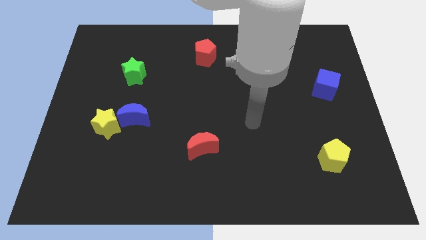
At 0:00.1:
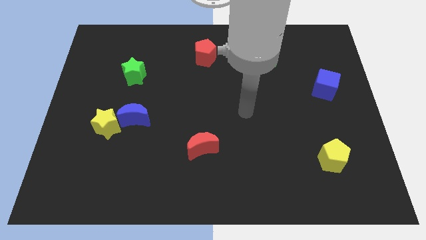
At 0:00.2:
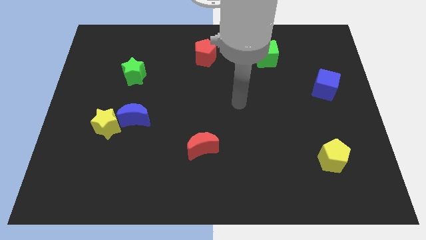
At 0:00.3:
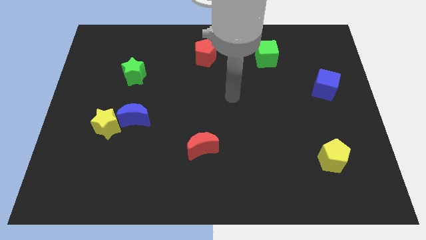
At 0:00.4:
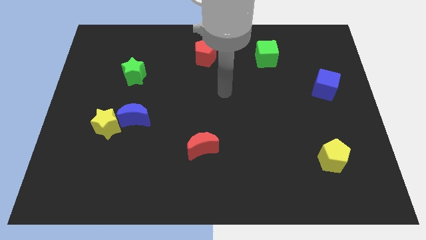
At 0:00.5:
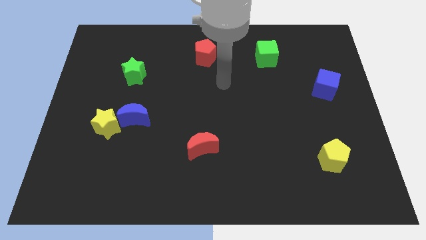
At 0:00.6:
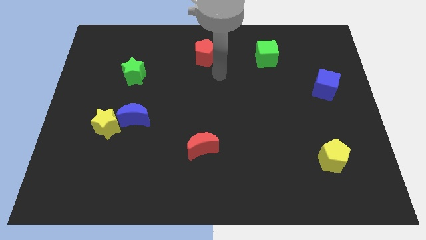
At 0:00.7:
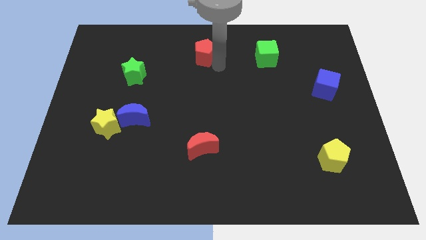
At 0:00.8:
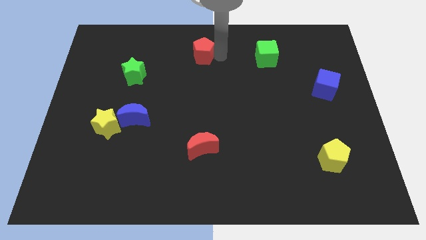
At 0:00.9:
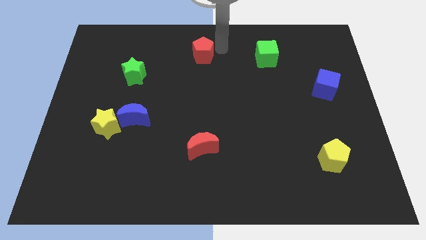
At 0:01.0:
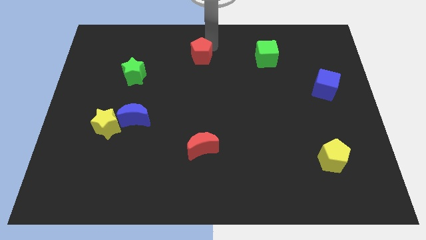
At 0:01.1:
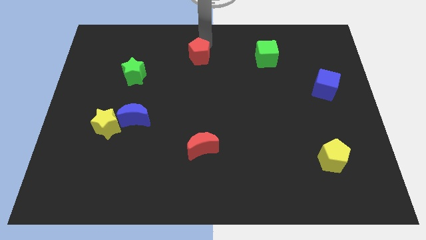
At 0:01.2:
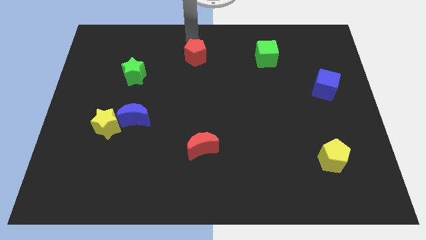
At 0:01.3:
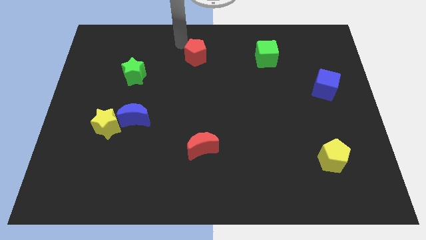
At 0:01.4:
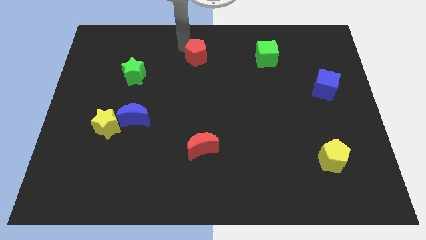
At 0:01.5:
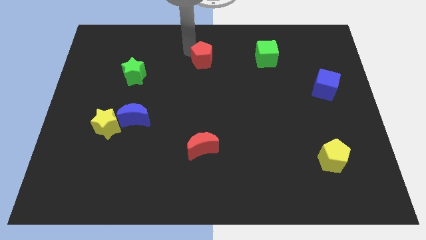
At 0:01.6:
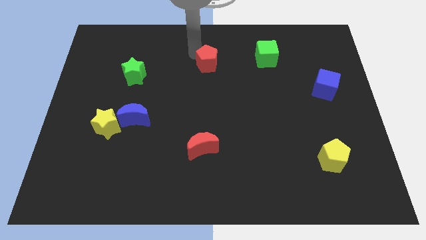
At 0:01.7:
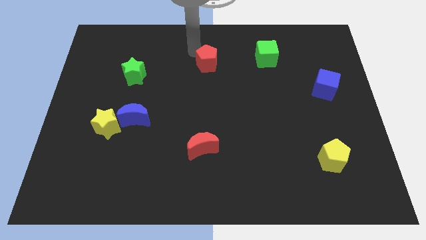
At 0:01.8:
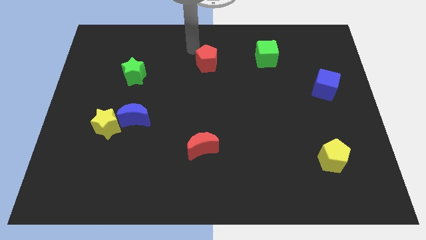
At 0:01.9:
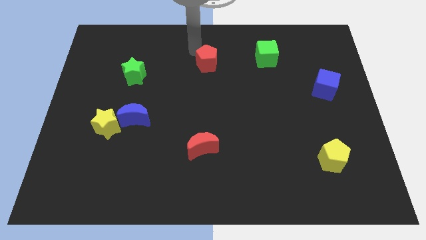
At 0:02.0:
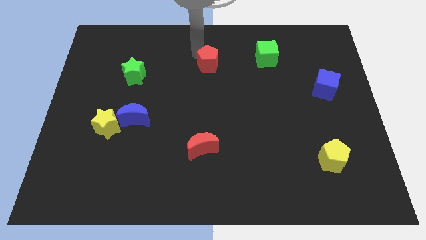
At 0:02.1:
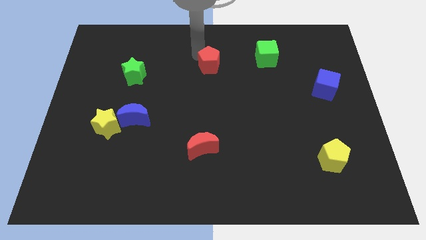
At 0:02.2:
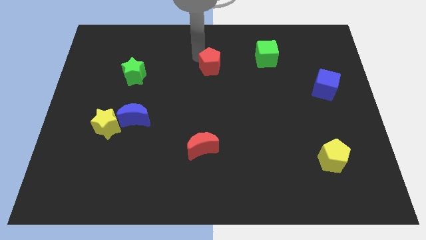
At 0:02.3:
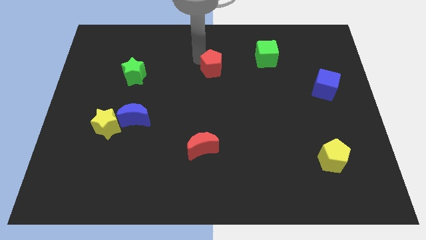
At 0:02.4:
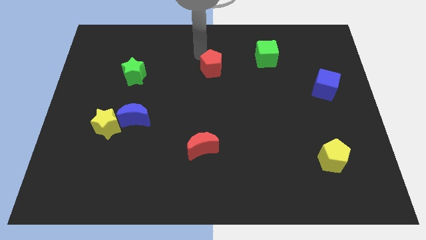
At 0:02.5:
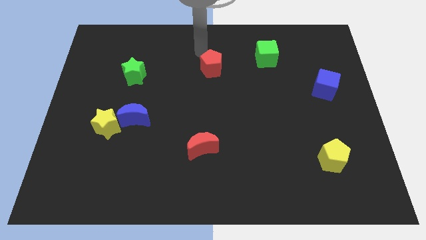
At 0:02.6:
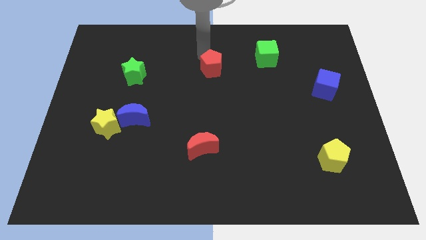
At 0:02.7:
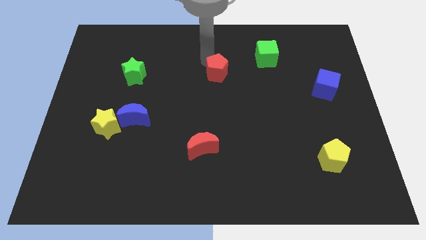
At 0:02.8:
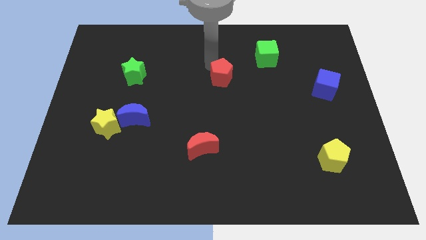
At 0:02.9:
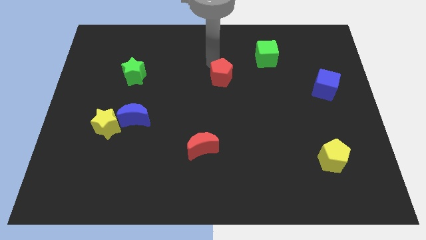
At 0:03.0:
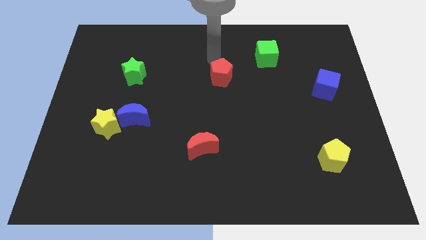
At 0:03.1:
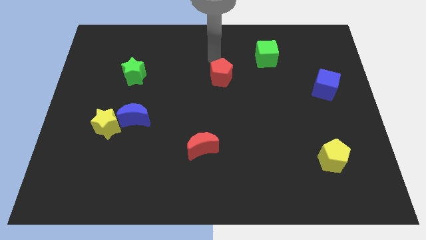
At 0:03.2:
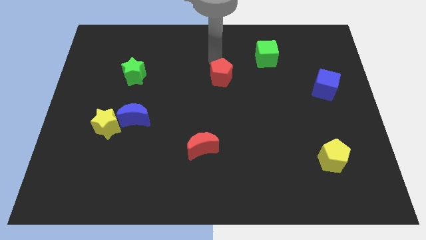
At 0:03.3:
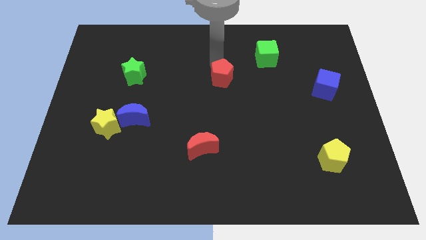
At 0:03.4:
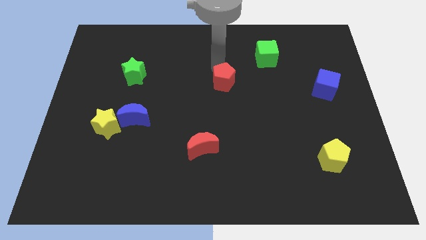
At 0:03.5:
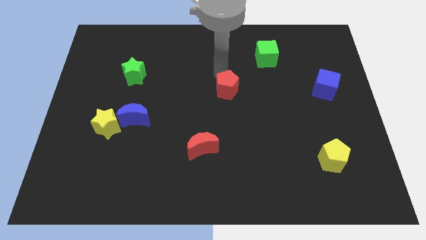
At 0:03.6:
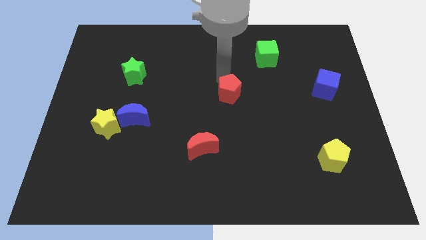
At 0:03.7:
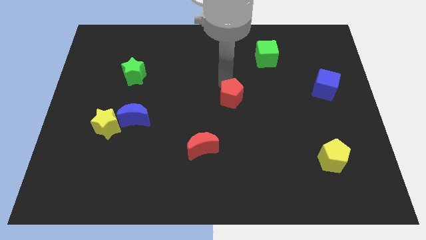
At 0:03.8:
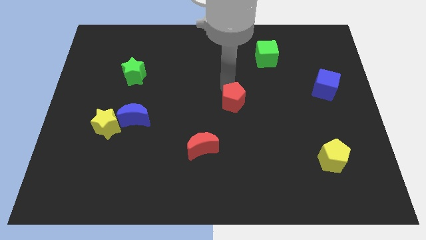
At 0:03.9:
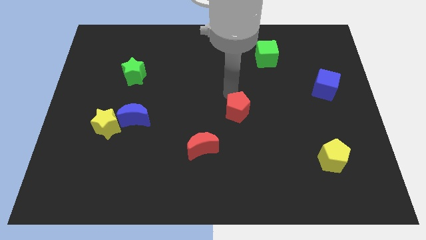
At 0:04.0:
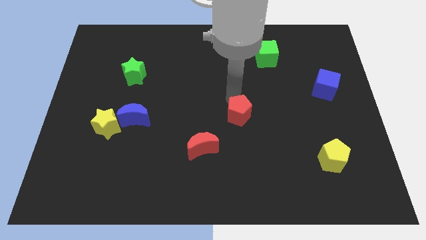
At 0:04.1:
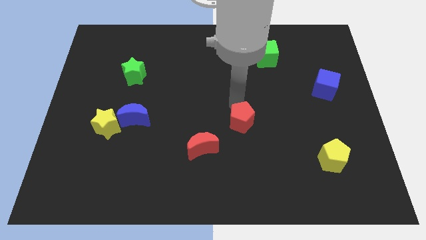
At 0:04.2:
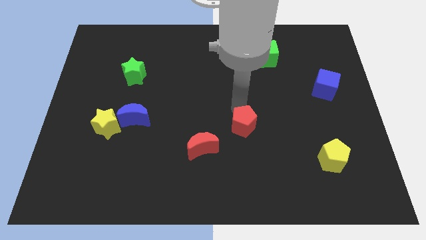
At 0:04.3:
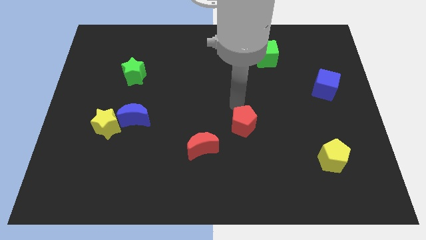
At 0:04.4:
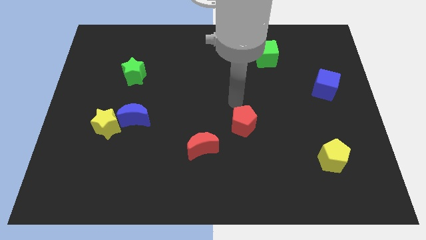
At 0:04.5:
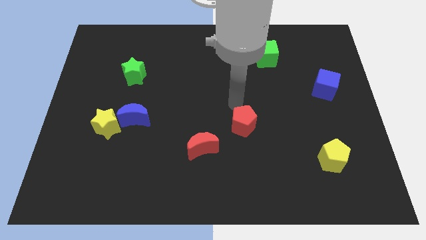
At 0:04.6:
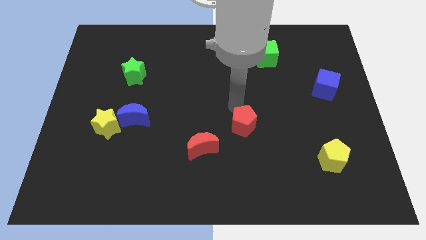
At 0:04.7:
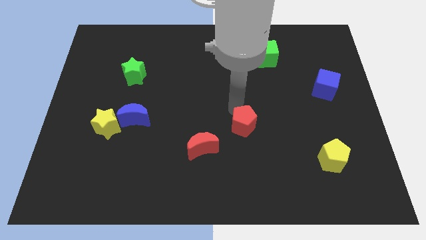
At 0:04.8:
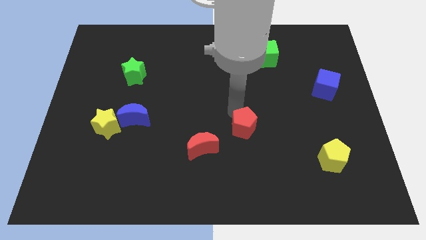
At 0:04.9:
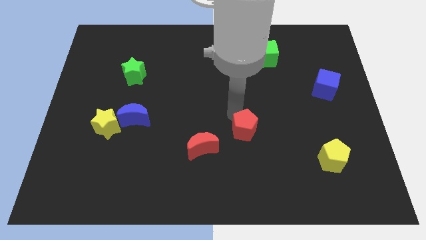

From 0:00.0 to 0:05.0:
slide the red pentagon to the right side of the red moon

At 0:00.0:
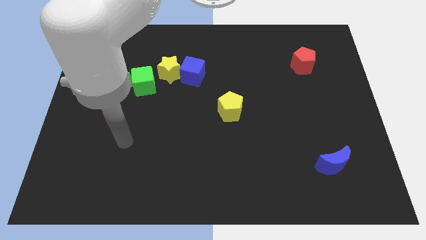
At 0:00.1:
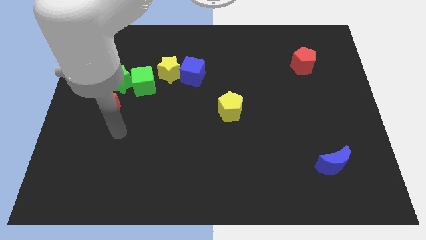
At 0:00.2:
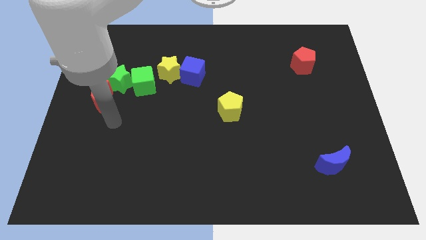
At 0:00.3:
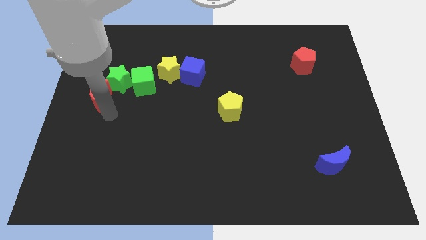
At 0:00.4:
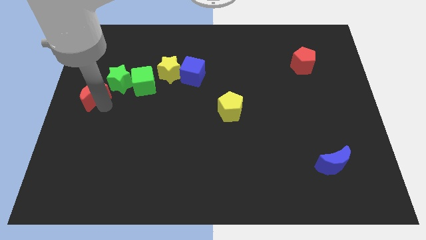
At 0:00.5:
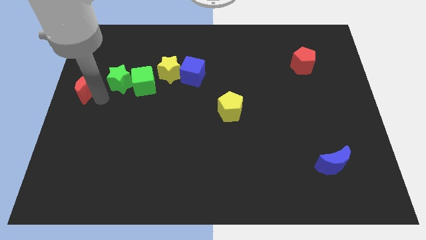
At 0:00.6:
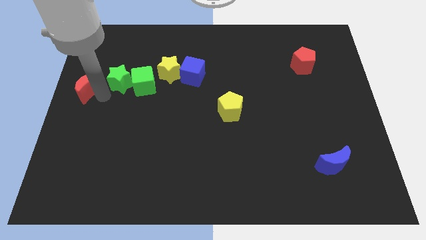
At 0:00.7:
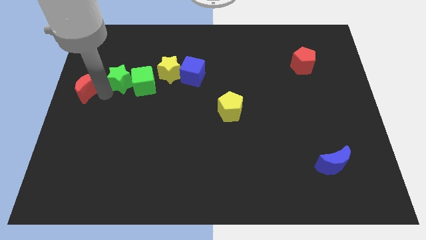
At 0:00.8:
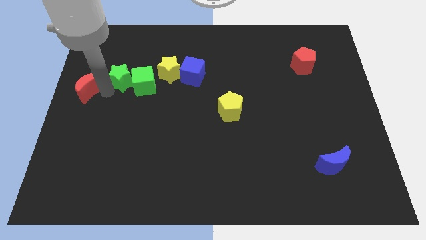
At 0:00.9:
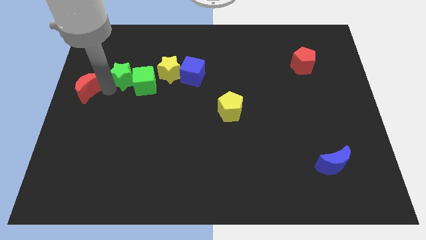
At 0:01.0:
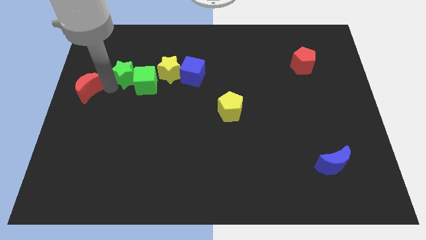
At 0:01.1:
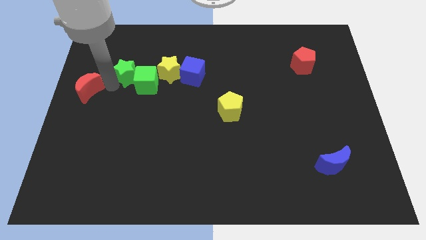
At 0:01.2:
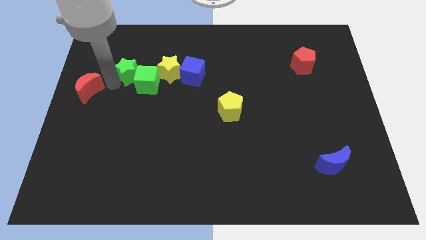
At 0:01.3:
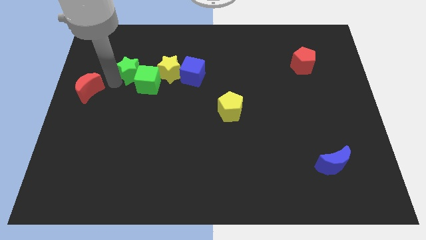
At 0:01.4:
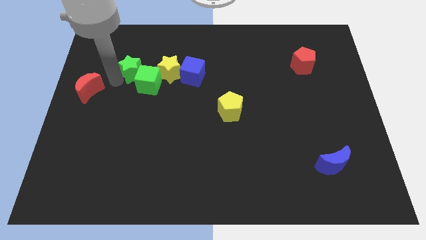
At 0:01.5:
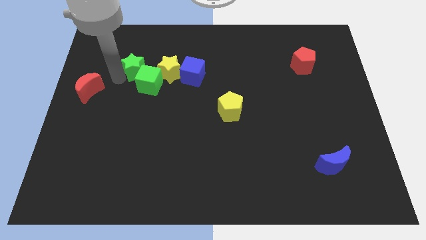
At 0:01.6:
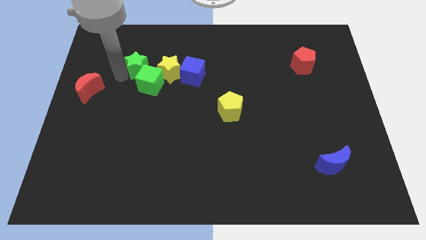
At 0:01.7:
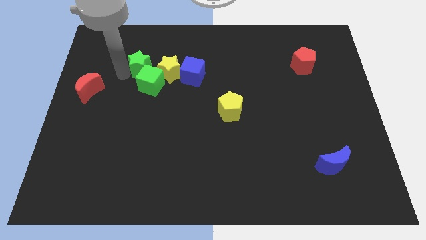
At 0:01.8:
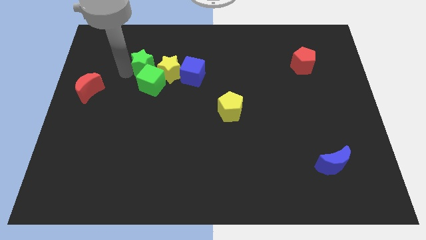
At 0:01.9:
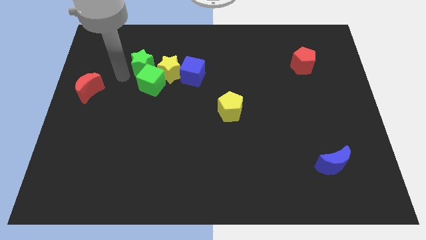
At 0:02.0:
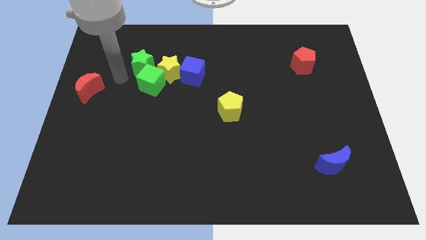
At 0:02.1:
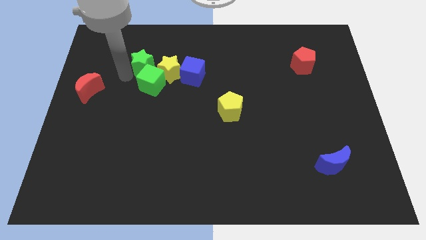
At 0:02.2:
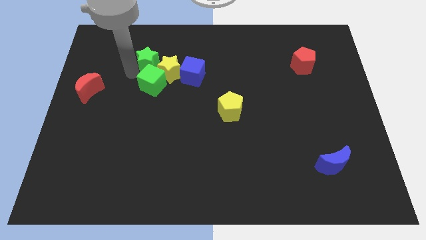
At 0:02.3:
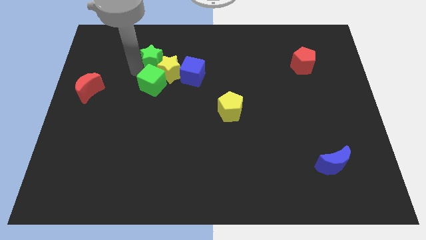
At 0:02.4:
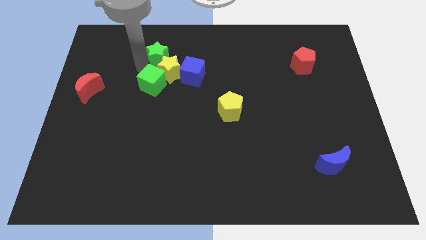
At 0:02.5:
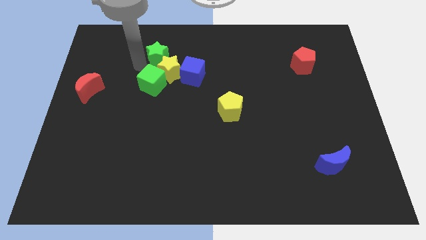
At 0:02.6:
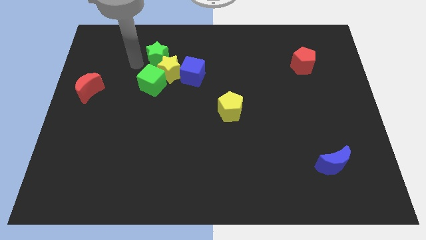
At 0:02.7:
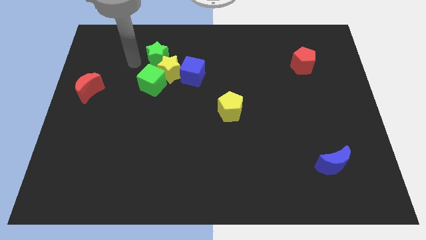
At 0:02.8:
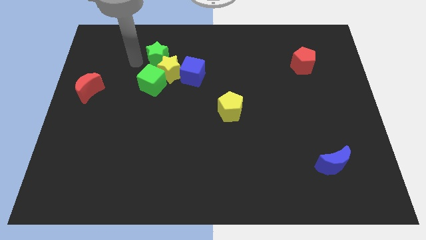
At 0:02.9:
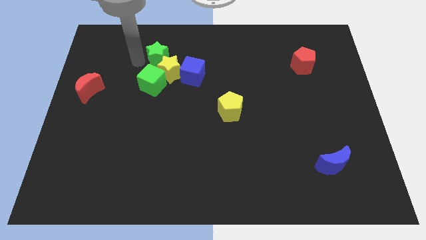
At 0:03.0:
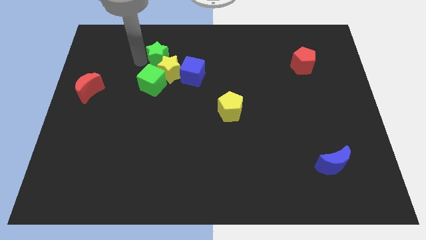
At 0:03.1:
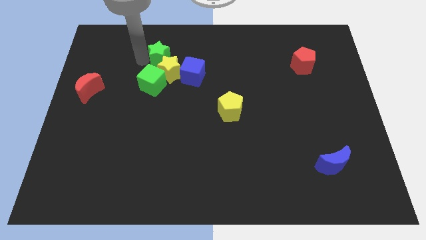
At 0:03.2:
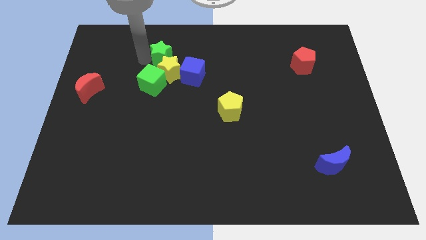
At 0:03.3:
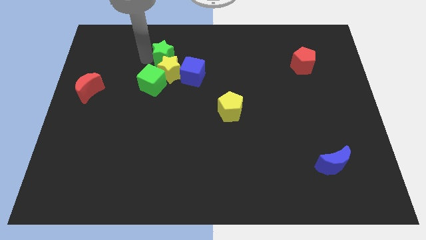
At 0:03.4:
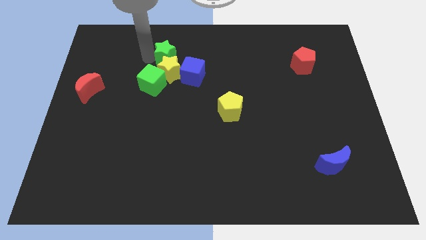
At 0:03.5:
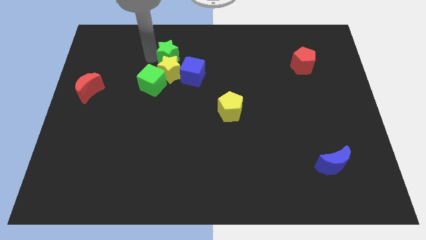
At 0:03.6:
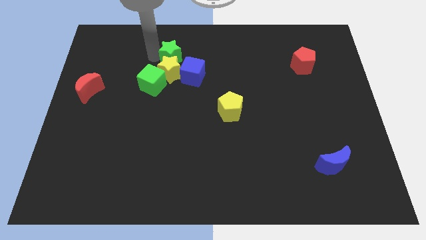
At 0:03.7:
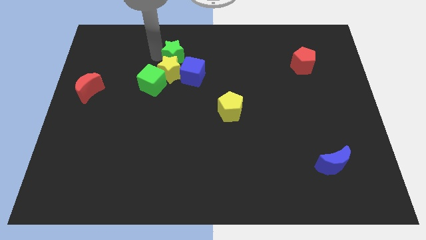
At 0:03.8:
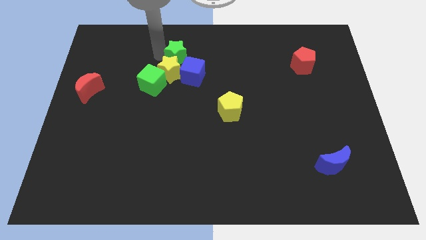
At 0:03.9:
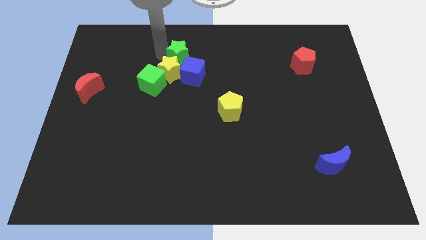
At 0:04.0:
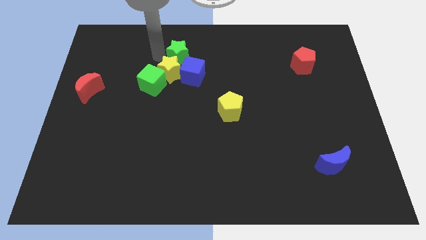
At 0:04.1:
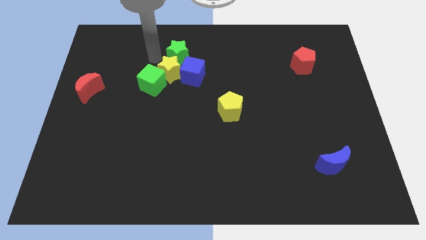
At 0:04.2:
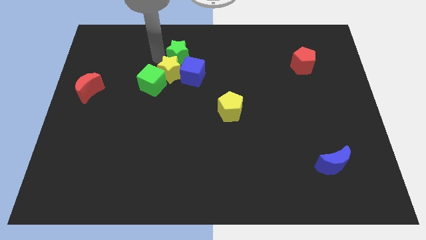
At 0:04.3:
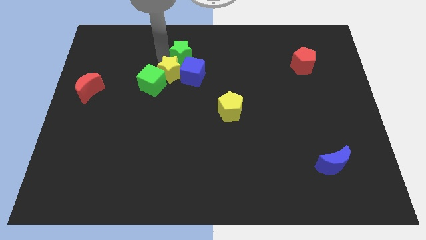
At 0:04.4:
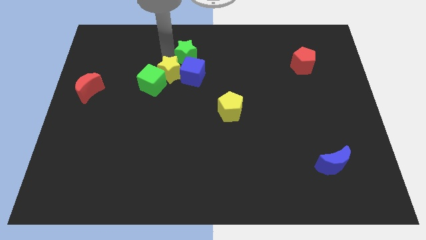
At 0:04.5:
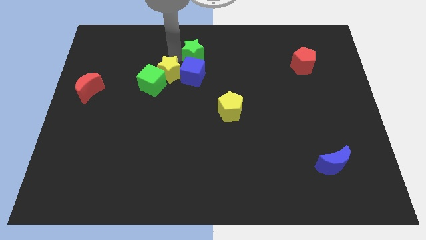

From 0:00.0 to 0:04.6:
put the green star to the top right side of the blue cube
